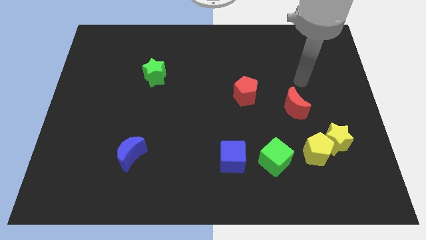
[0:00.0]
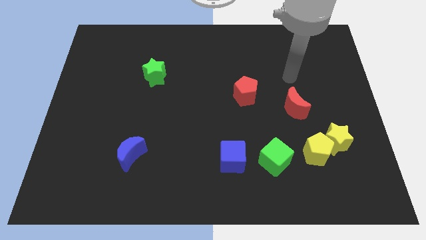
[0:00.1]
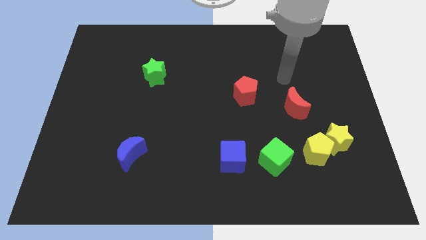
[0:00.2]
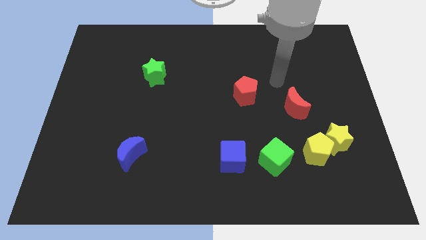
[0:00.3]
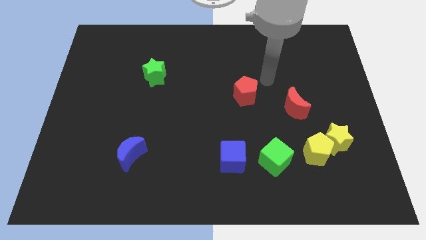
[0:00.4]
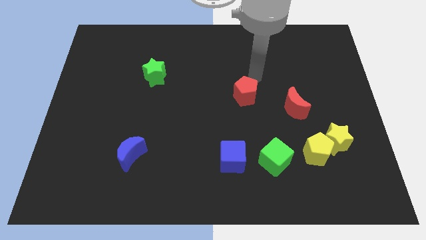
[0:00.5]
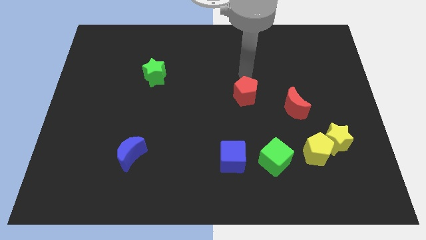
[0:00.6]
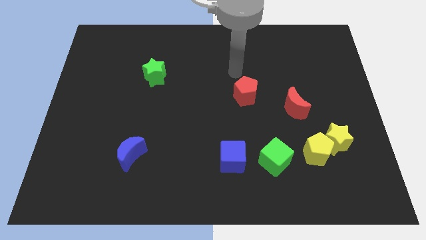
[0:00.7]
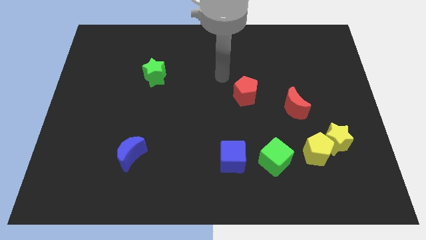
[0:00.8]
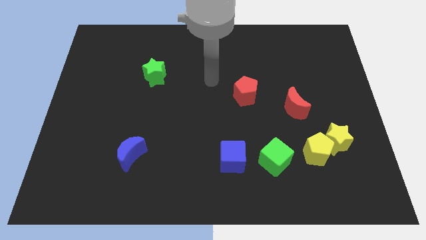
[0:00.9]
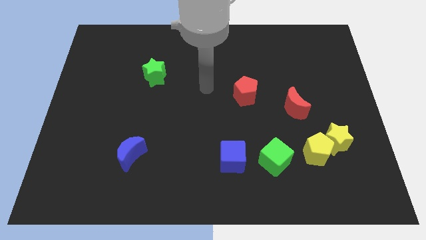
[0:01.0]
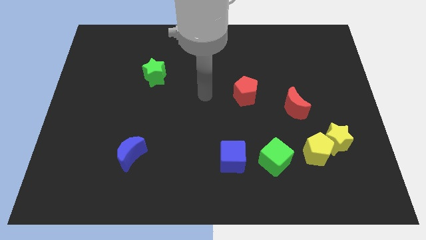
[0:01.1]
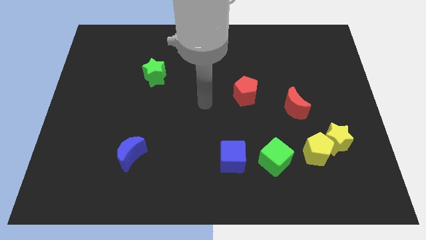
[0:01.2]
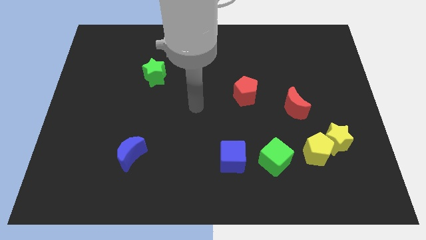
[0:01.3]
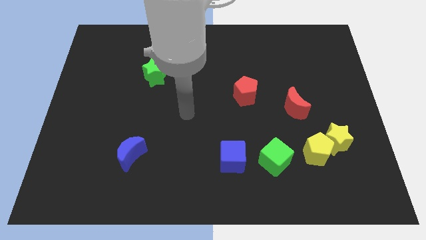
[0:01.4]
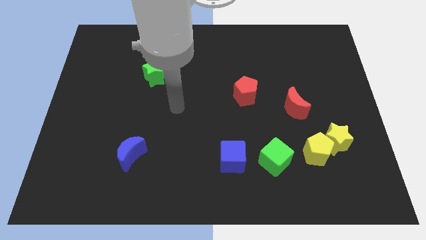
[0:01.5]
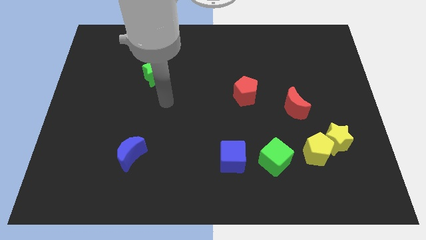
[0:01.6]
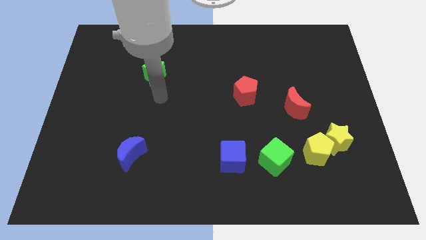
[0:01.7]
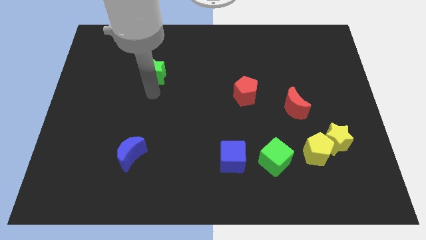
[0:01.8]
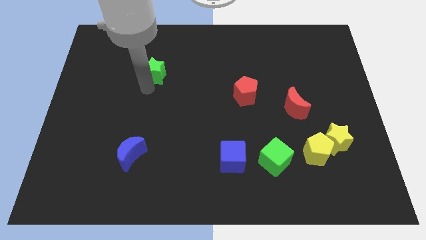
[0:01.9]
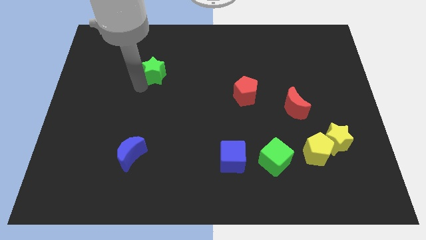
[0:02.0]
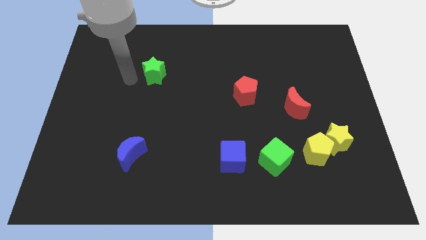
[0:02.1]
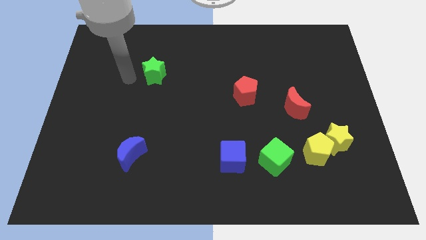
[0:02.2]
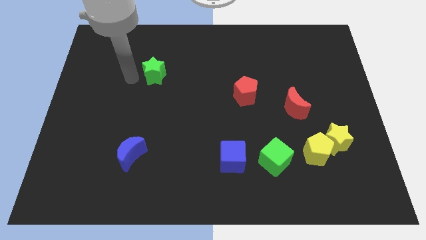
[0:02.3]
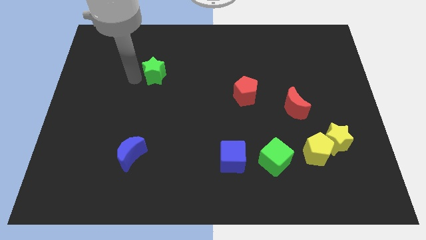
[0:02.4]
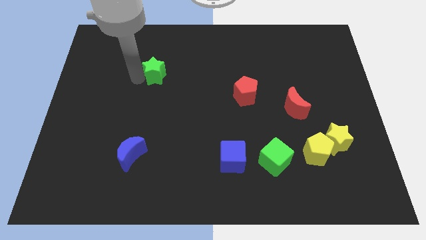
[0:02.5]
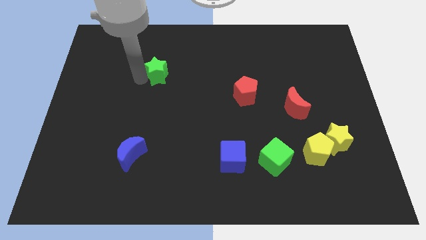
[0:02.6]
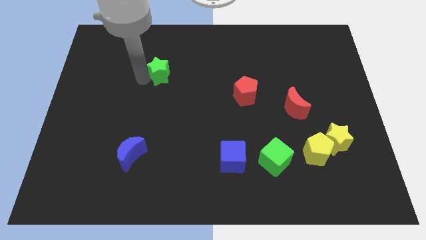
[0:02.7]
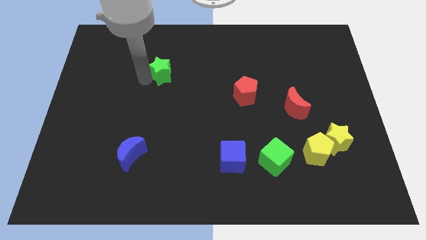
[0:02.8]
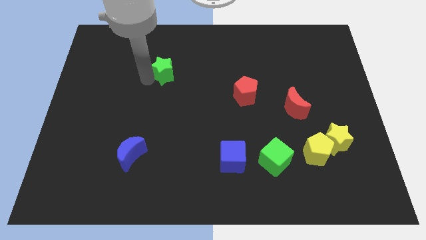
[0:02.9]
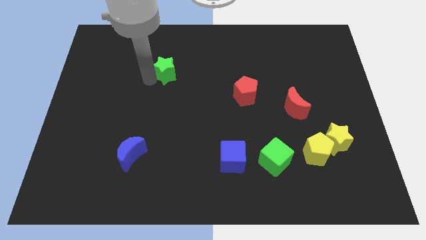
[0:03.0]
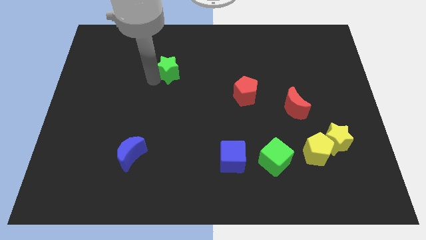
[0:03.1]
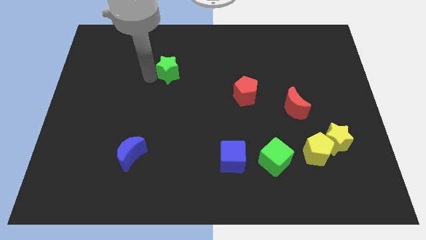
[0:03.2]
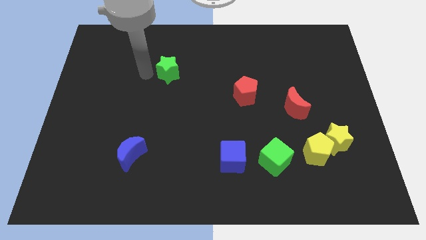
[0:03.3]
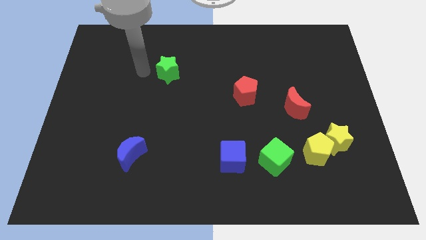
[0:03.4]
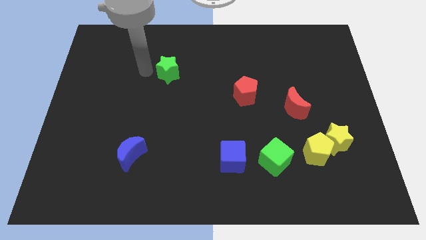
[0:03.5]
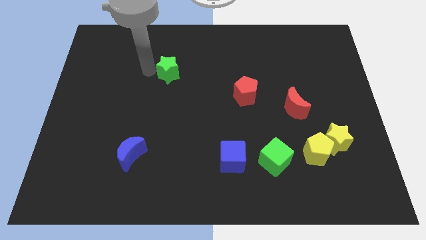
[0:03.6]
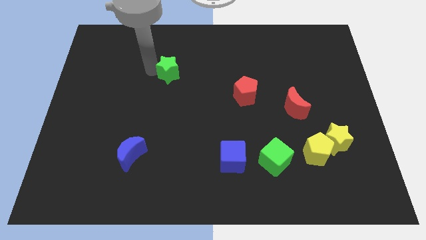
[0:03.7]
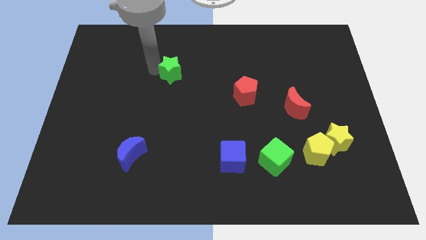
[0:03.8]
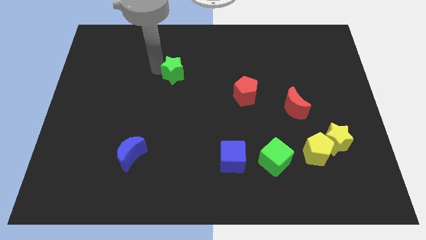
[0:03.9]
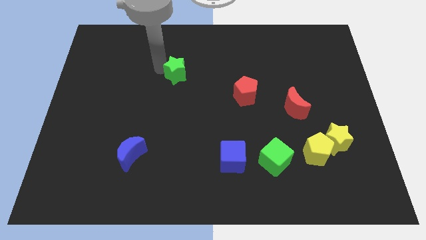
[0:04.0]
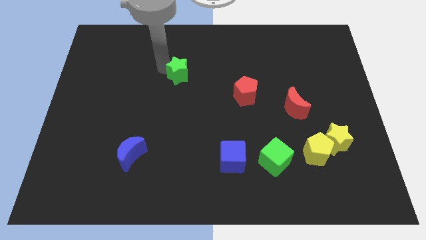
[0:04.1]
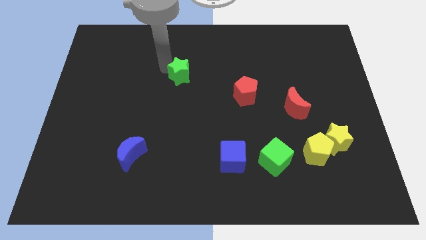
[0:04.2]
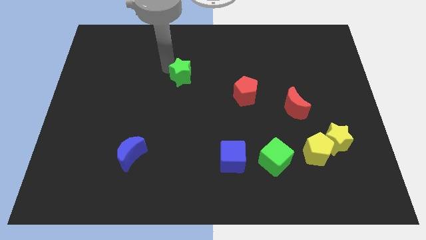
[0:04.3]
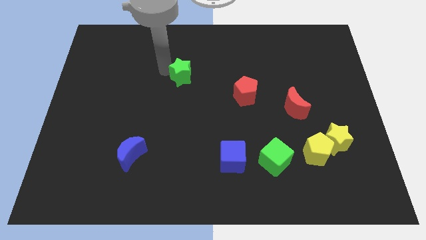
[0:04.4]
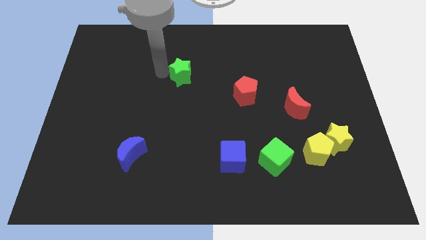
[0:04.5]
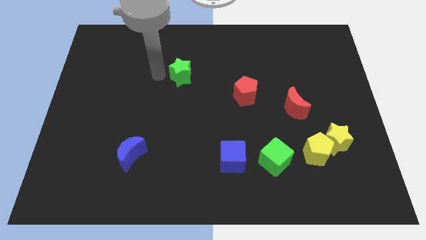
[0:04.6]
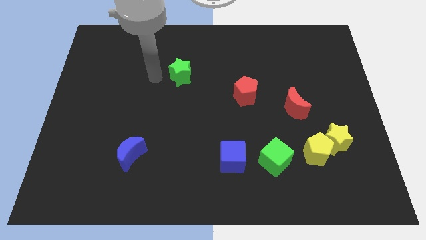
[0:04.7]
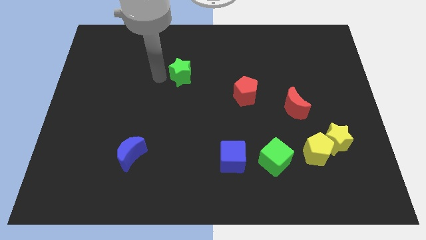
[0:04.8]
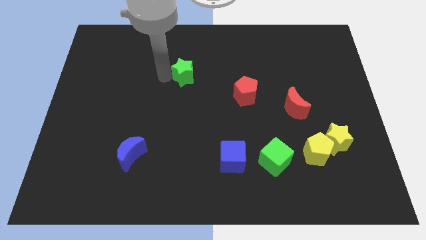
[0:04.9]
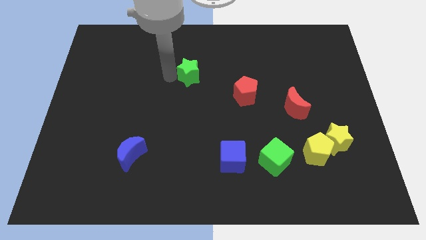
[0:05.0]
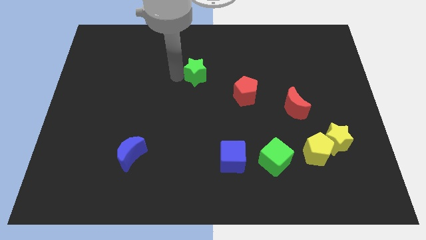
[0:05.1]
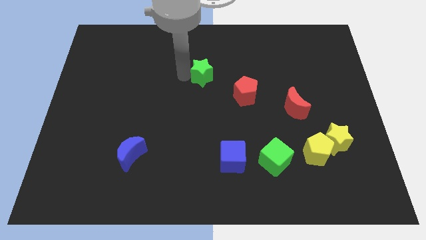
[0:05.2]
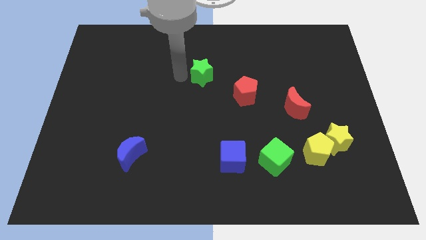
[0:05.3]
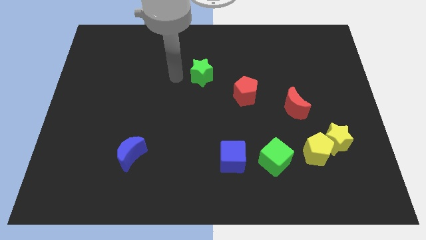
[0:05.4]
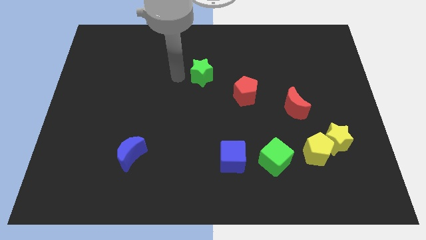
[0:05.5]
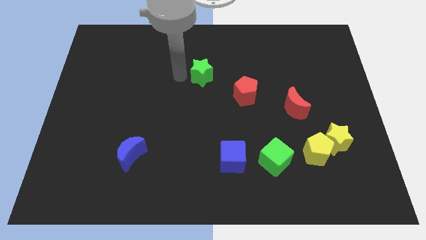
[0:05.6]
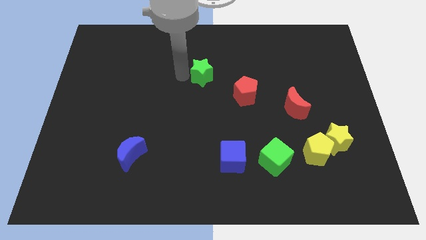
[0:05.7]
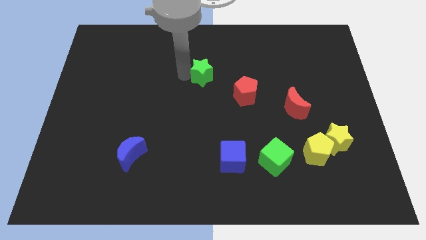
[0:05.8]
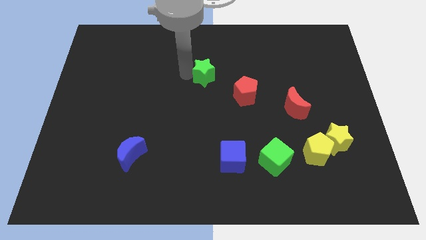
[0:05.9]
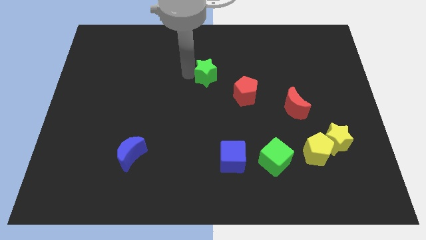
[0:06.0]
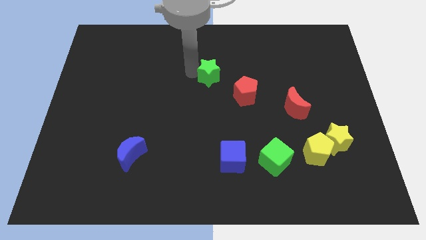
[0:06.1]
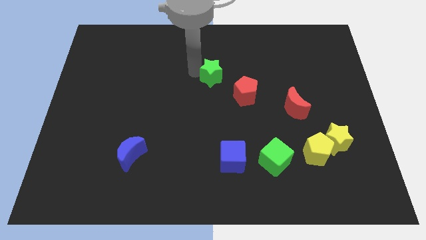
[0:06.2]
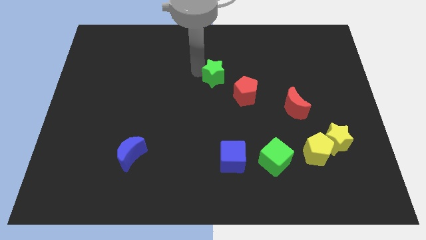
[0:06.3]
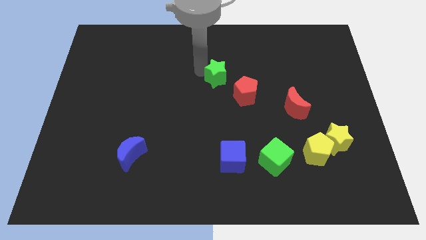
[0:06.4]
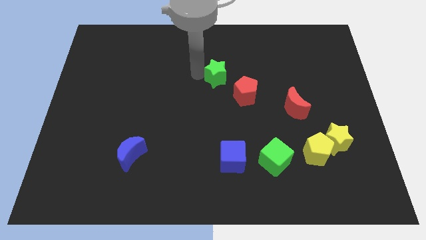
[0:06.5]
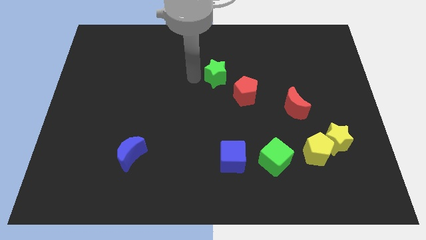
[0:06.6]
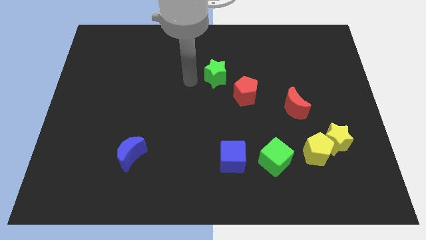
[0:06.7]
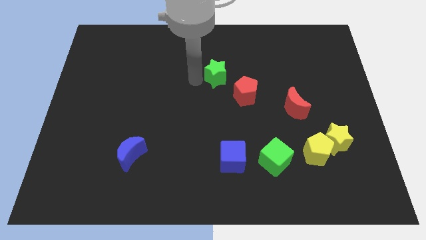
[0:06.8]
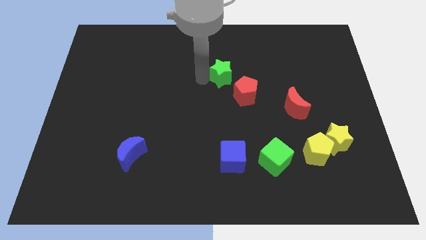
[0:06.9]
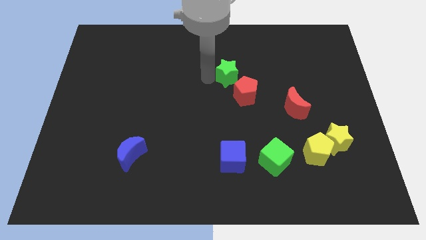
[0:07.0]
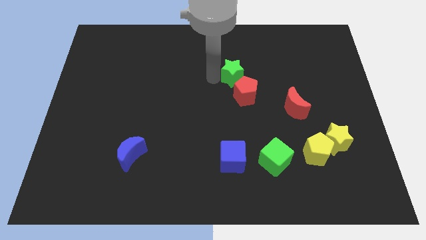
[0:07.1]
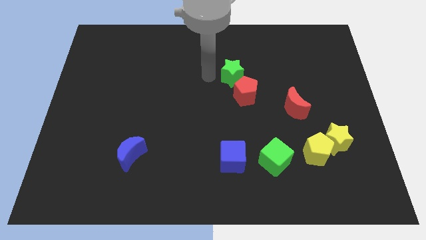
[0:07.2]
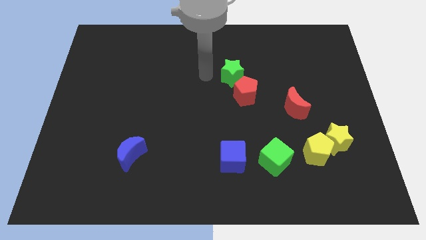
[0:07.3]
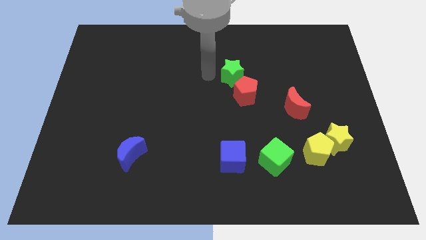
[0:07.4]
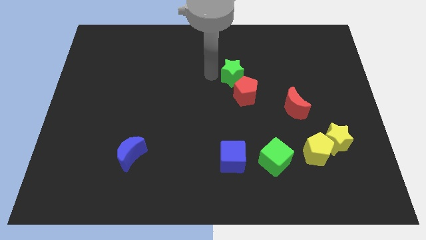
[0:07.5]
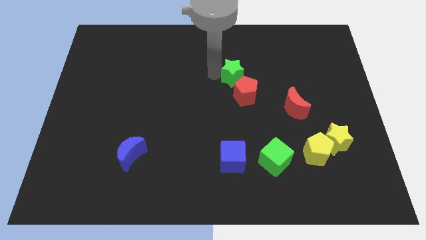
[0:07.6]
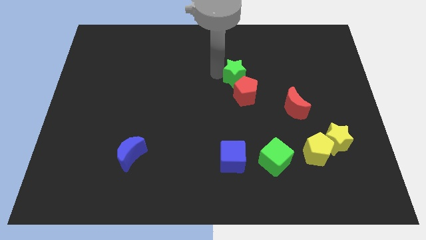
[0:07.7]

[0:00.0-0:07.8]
push the green star right

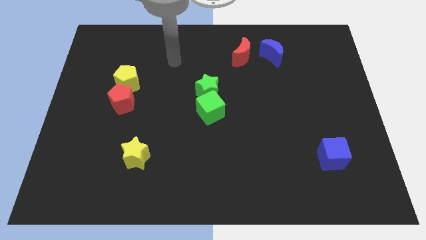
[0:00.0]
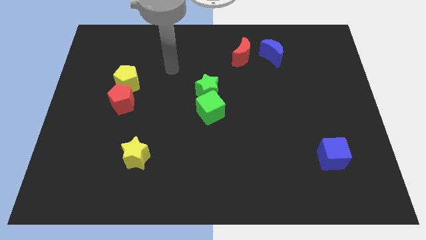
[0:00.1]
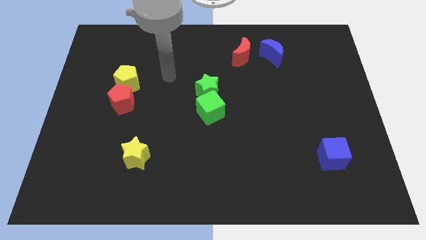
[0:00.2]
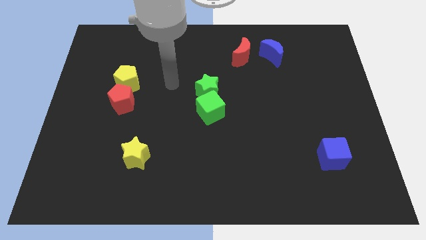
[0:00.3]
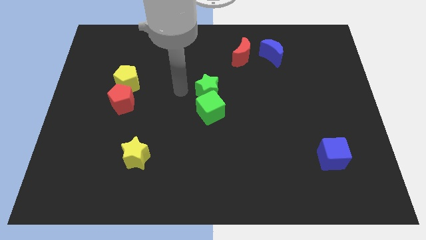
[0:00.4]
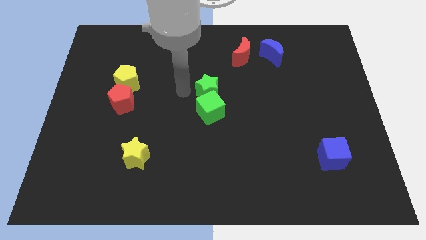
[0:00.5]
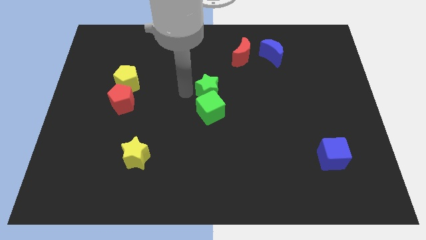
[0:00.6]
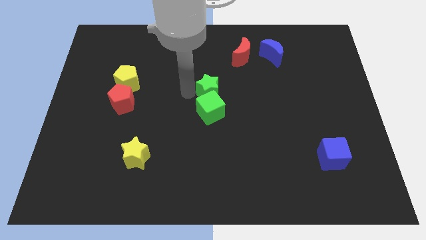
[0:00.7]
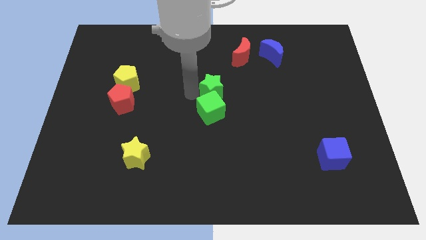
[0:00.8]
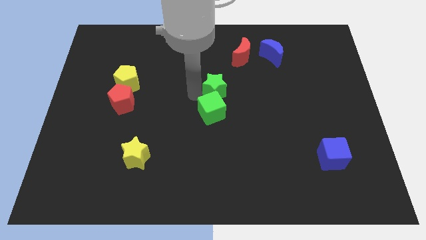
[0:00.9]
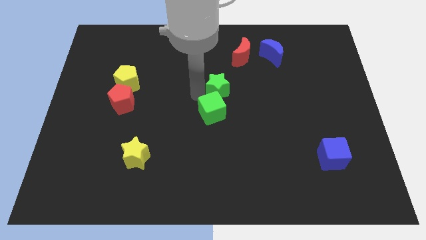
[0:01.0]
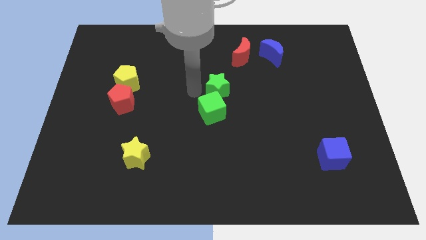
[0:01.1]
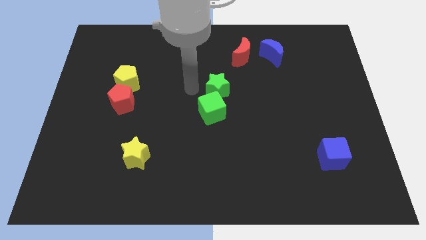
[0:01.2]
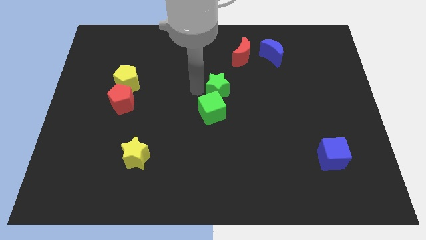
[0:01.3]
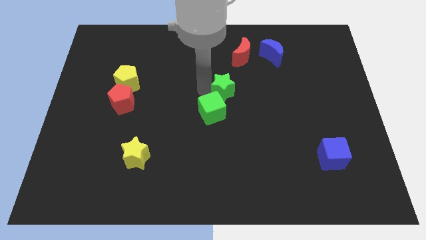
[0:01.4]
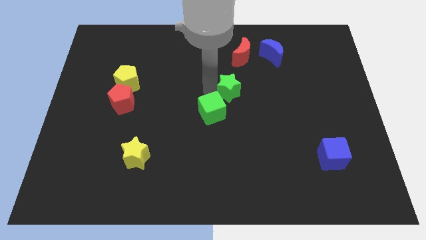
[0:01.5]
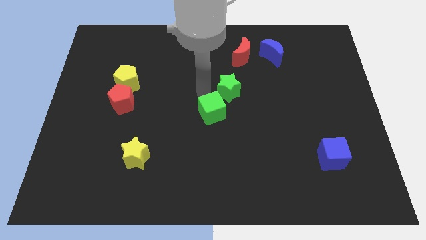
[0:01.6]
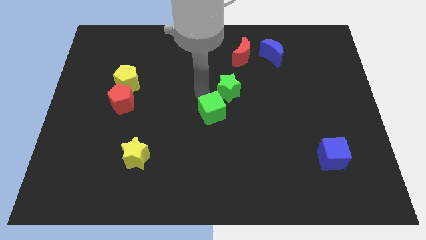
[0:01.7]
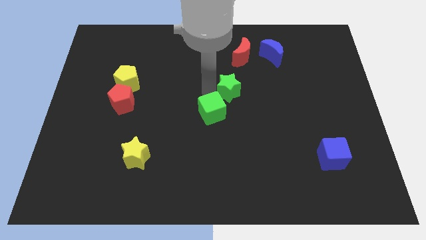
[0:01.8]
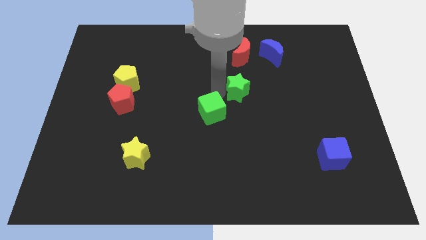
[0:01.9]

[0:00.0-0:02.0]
slightly move the green star to the right
